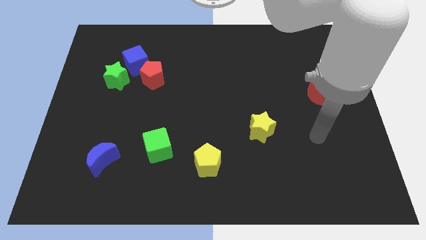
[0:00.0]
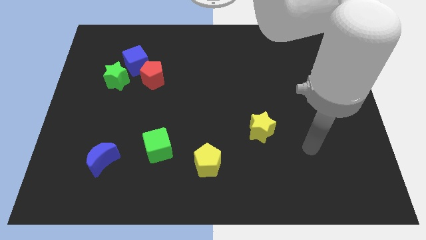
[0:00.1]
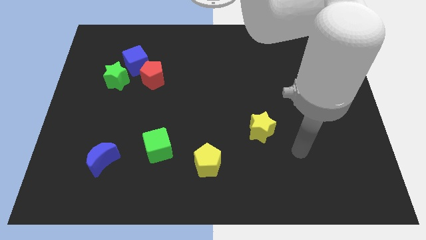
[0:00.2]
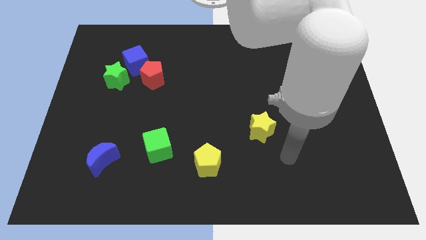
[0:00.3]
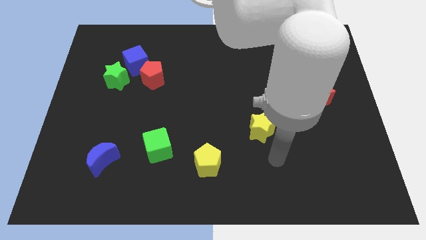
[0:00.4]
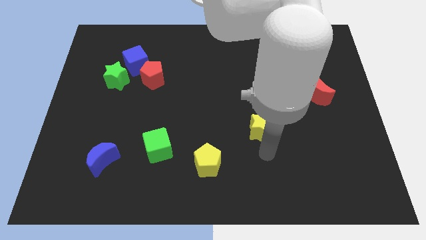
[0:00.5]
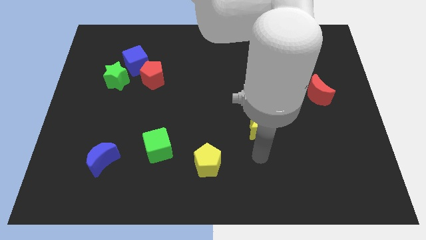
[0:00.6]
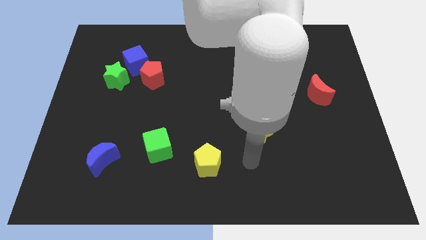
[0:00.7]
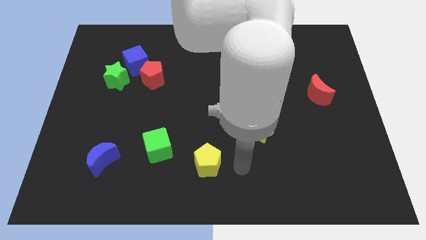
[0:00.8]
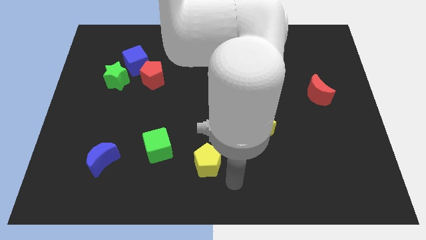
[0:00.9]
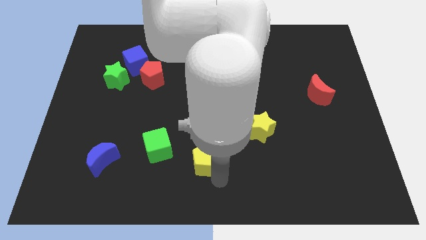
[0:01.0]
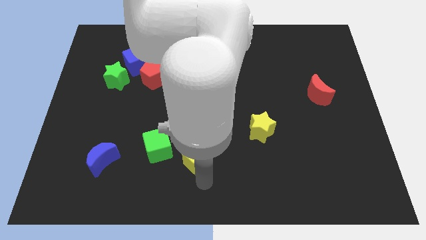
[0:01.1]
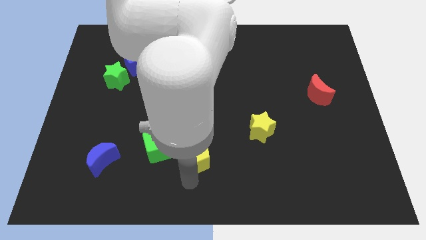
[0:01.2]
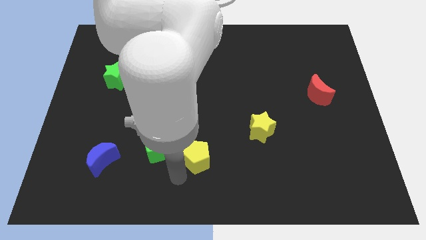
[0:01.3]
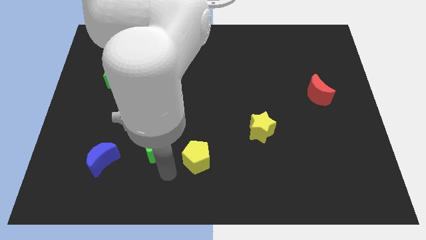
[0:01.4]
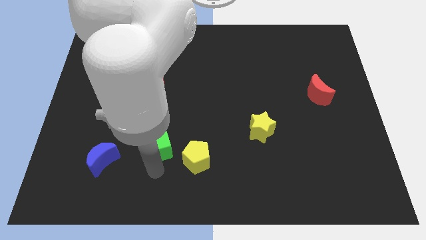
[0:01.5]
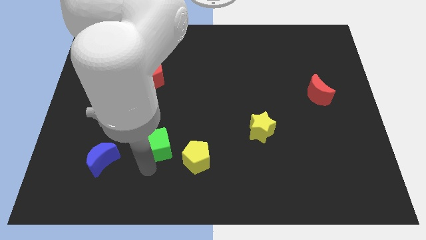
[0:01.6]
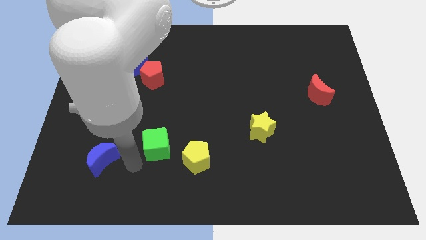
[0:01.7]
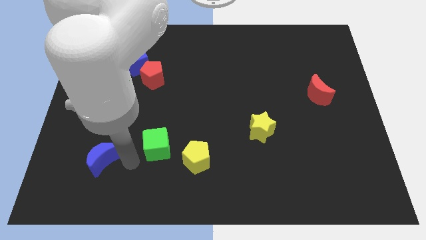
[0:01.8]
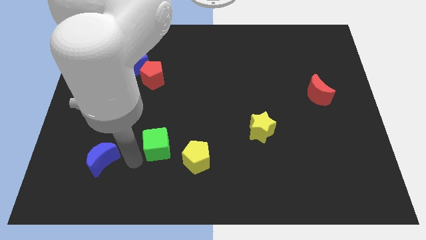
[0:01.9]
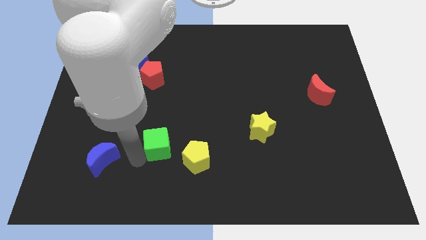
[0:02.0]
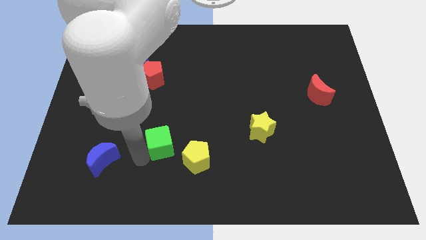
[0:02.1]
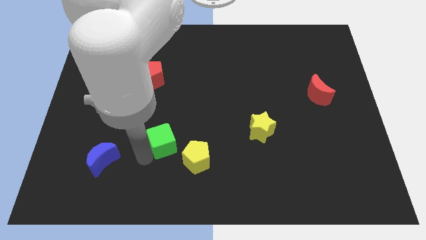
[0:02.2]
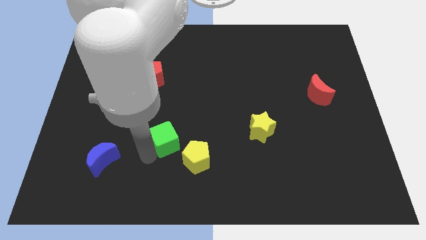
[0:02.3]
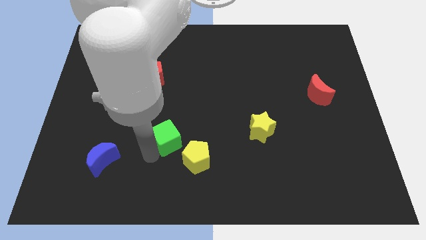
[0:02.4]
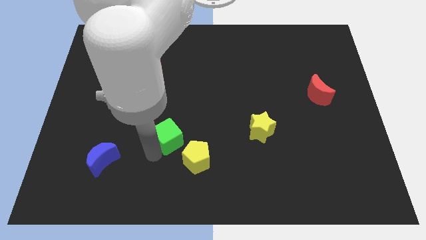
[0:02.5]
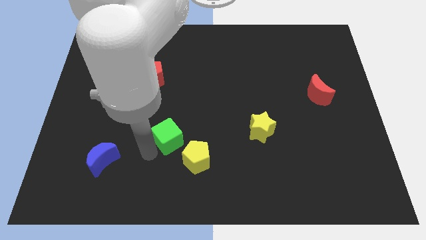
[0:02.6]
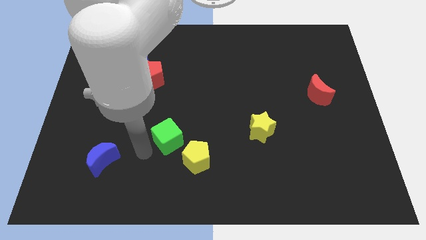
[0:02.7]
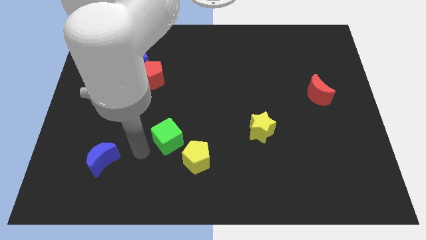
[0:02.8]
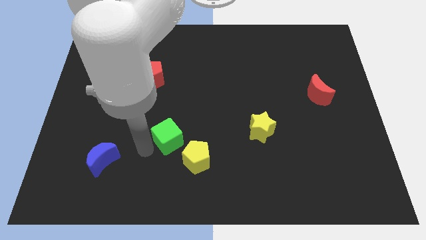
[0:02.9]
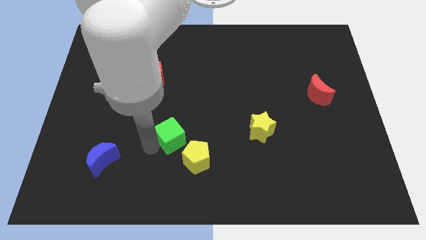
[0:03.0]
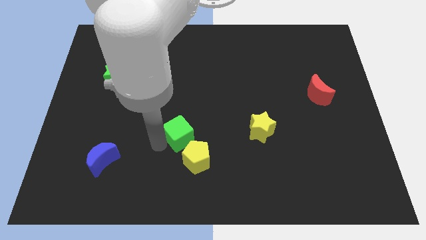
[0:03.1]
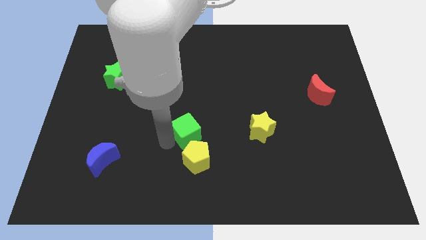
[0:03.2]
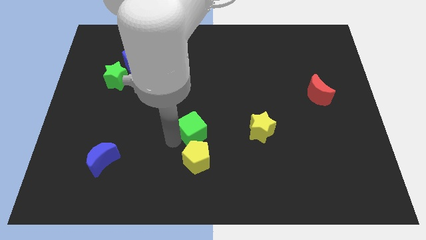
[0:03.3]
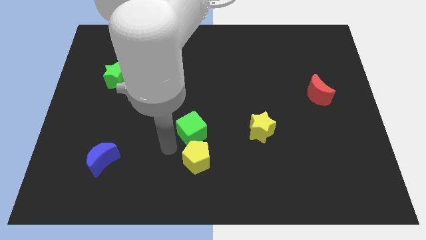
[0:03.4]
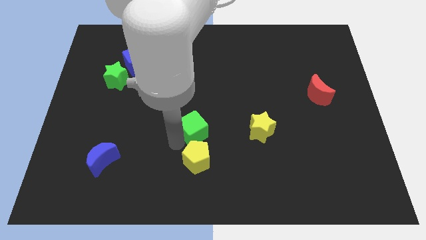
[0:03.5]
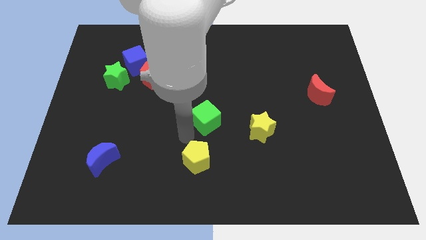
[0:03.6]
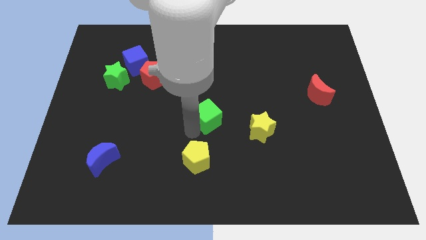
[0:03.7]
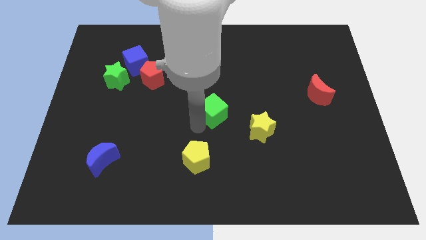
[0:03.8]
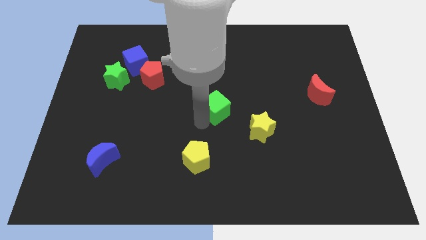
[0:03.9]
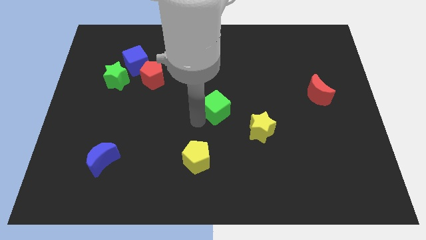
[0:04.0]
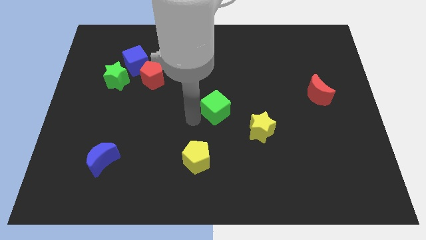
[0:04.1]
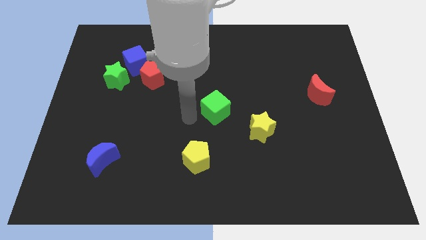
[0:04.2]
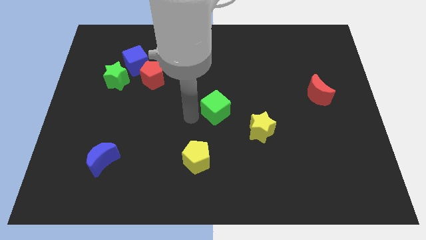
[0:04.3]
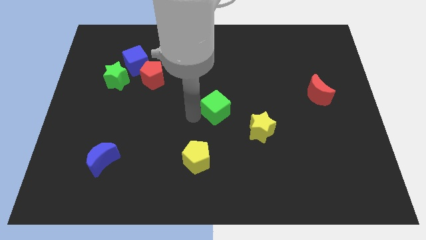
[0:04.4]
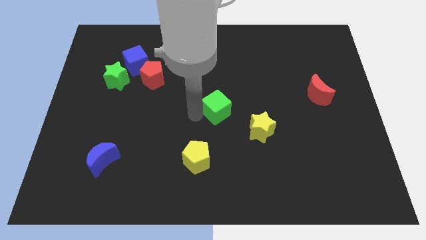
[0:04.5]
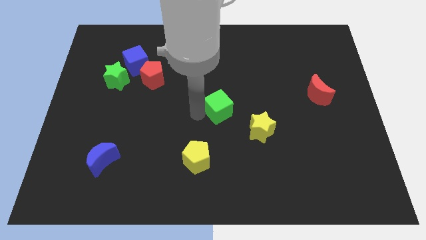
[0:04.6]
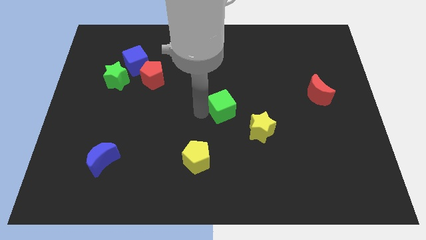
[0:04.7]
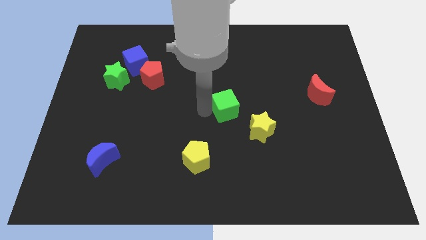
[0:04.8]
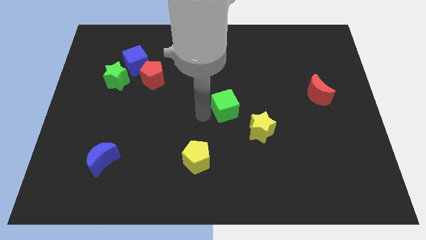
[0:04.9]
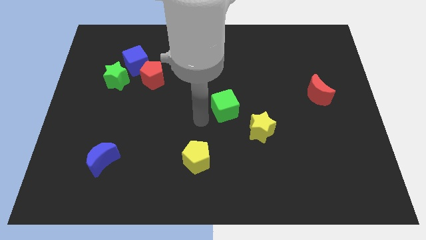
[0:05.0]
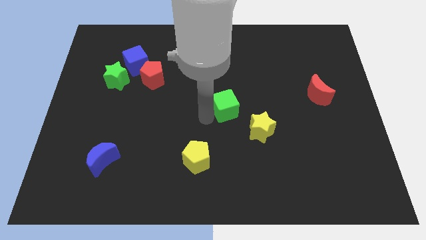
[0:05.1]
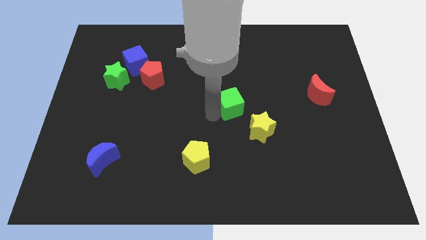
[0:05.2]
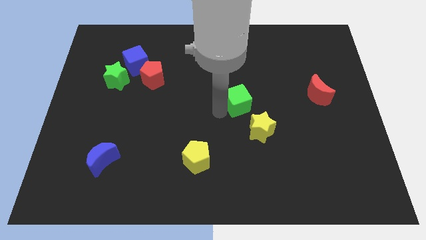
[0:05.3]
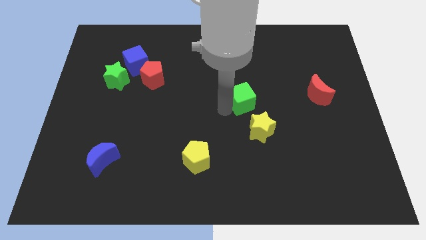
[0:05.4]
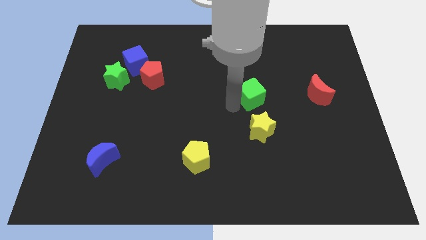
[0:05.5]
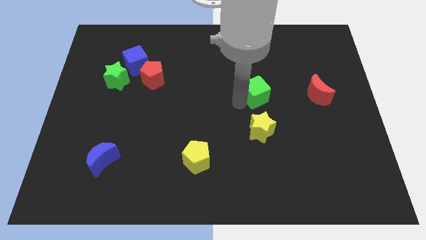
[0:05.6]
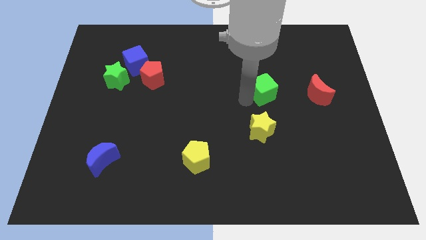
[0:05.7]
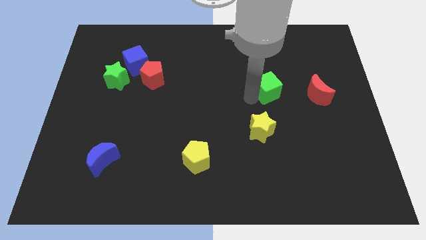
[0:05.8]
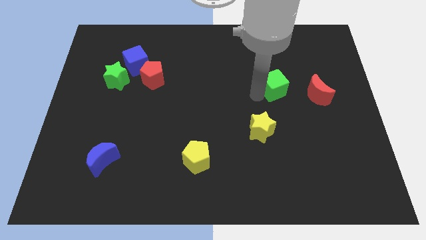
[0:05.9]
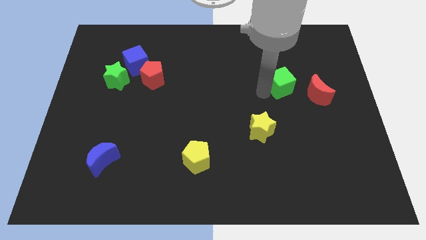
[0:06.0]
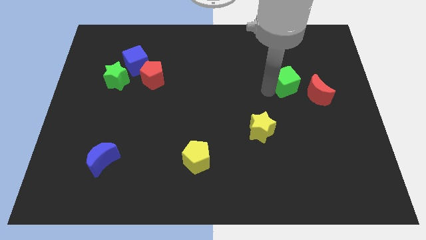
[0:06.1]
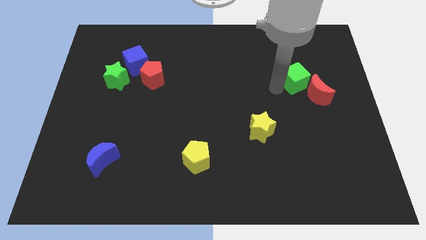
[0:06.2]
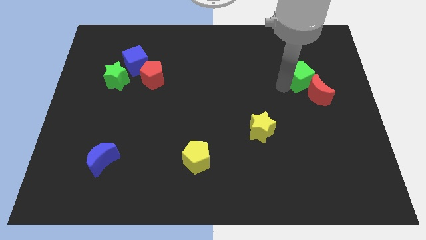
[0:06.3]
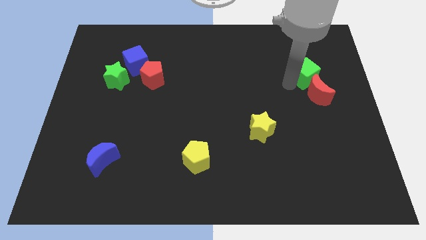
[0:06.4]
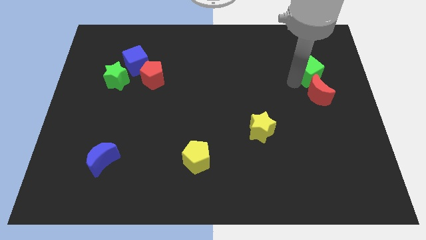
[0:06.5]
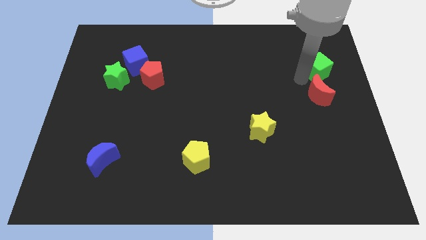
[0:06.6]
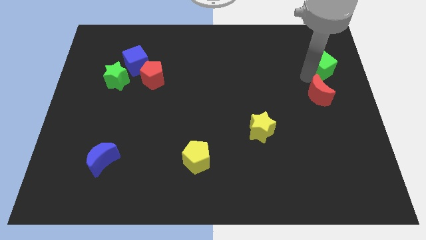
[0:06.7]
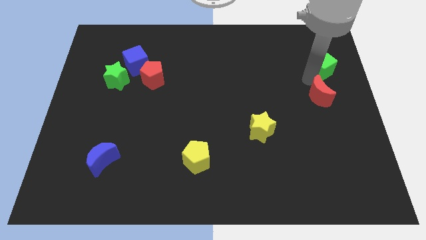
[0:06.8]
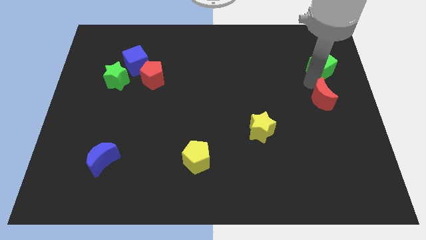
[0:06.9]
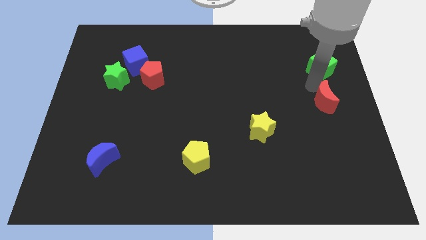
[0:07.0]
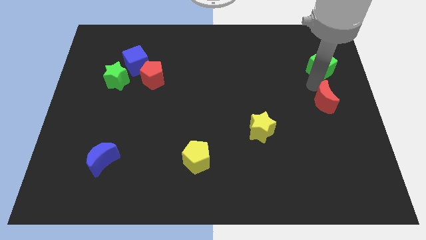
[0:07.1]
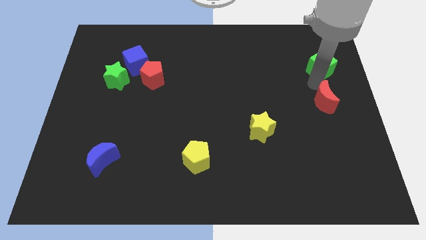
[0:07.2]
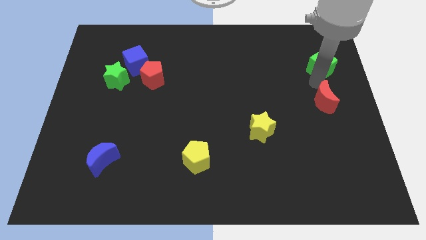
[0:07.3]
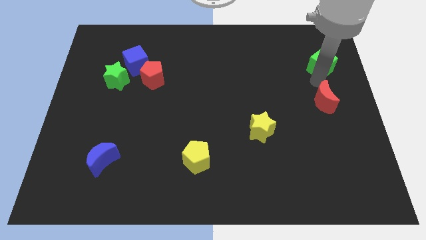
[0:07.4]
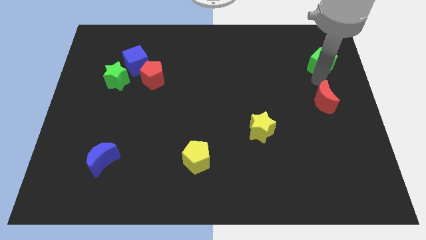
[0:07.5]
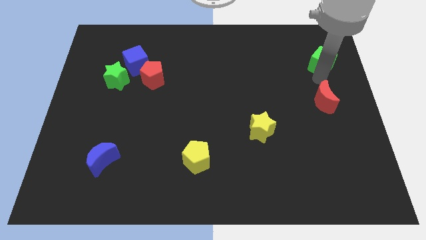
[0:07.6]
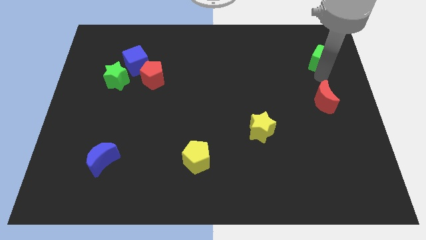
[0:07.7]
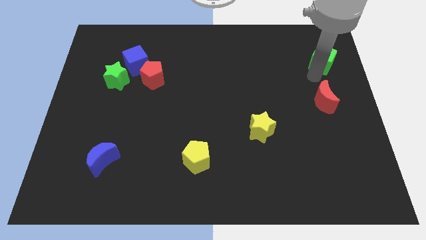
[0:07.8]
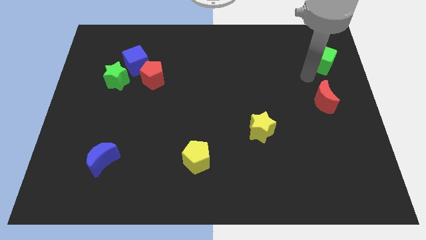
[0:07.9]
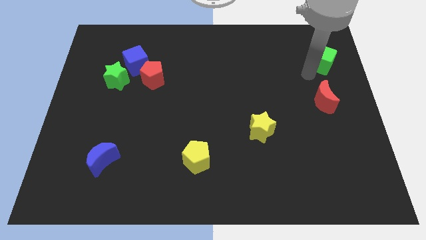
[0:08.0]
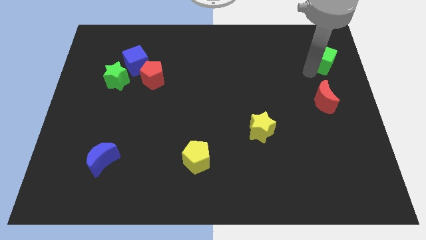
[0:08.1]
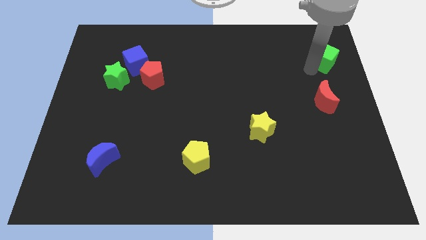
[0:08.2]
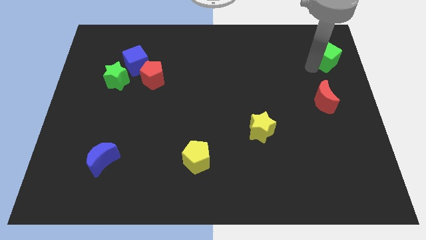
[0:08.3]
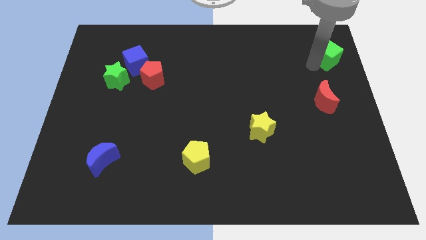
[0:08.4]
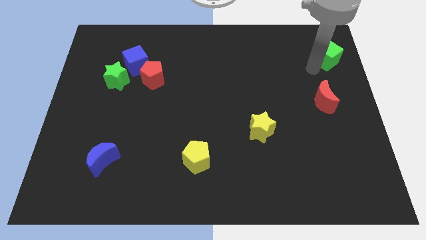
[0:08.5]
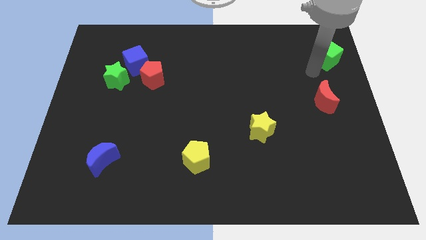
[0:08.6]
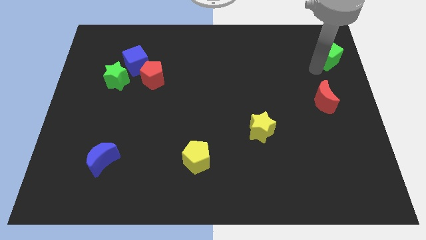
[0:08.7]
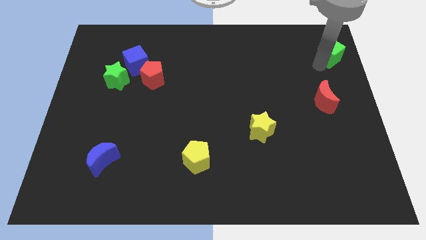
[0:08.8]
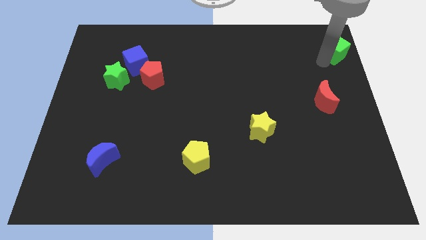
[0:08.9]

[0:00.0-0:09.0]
push the green cube to the top right of the board
